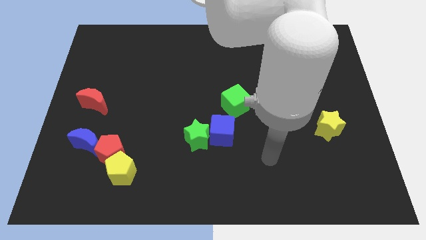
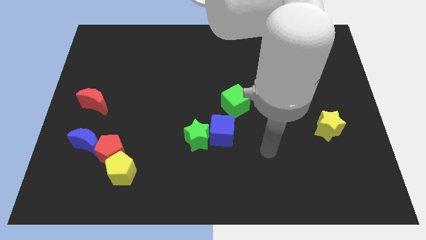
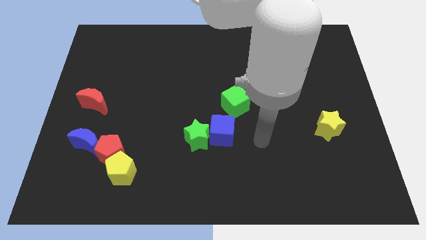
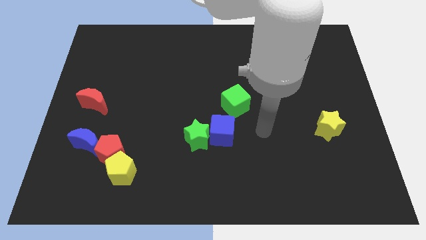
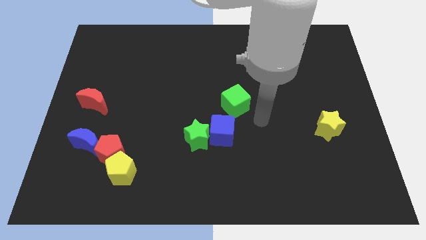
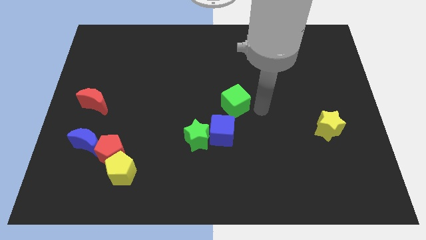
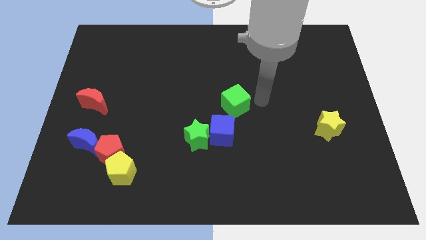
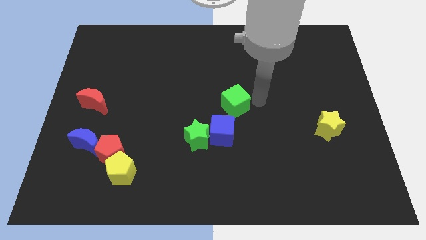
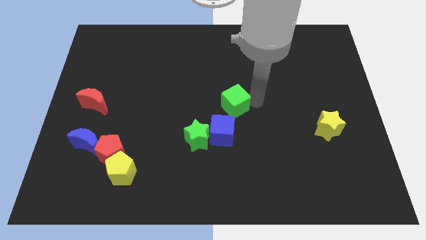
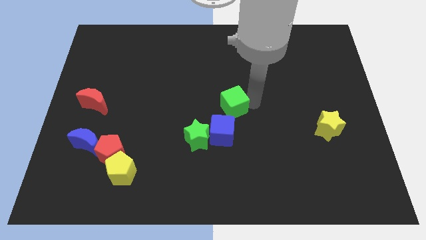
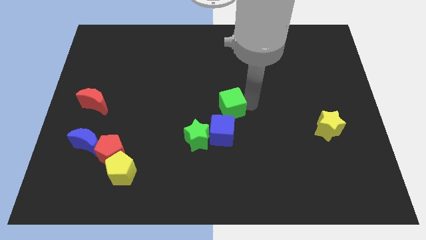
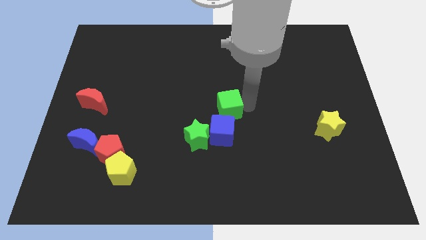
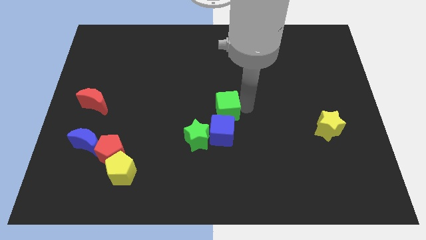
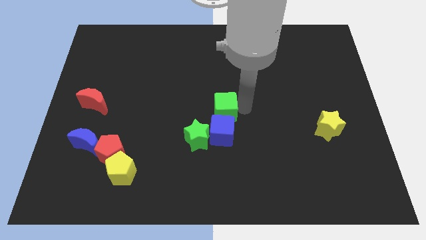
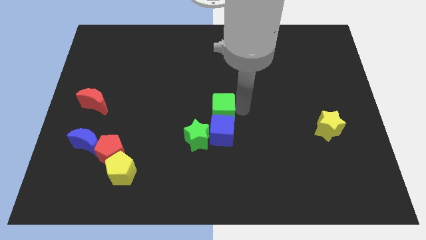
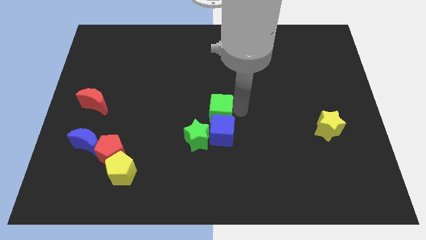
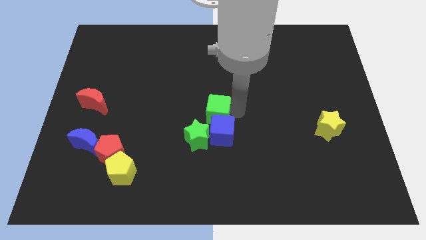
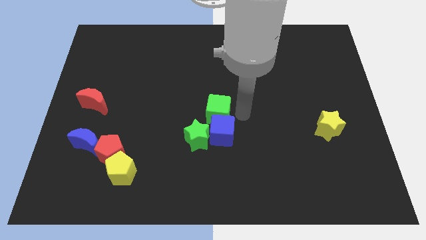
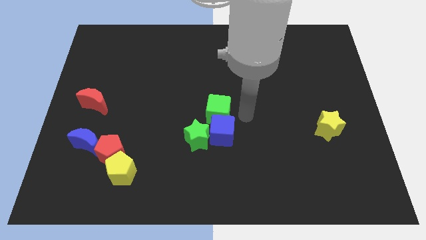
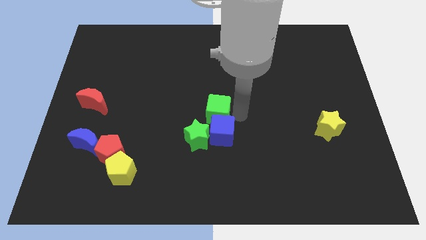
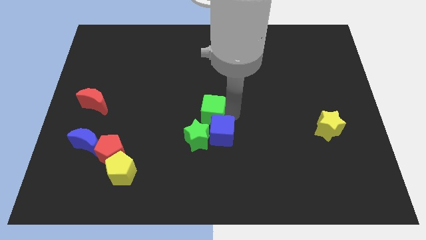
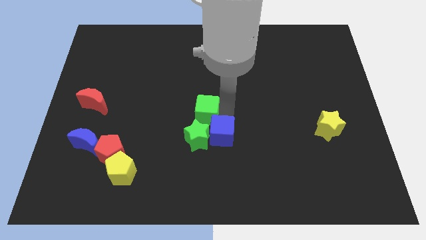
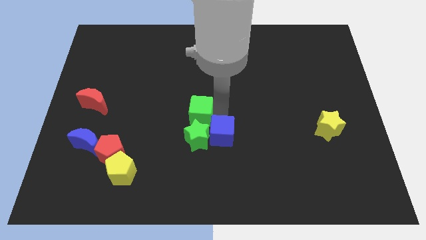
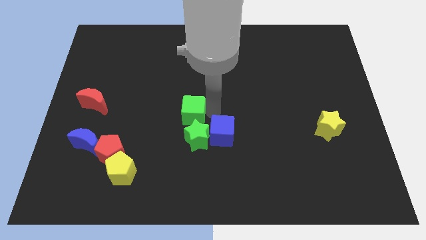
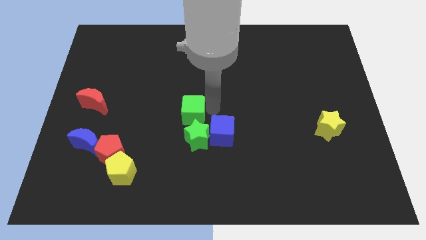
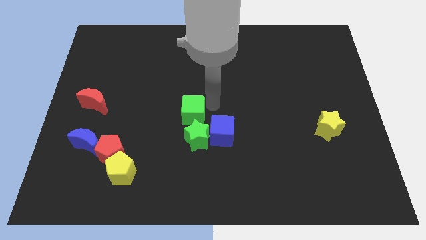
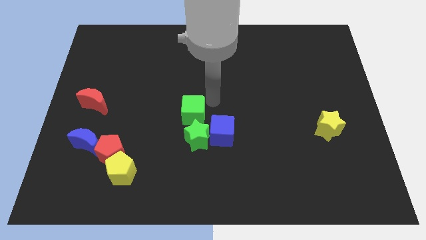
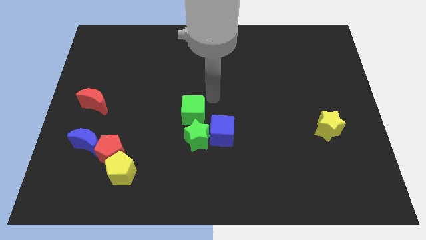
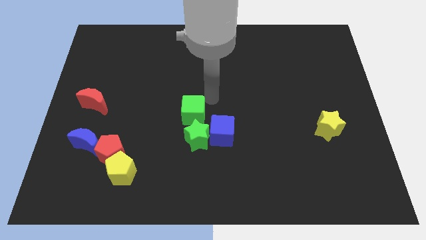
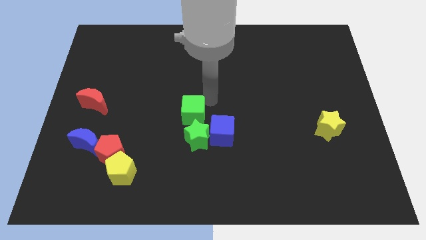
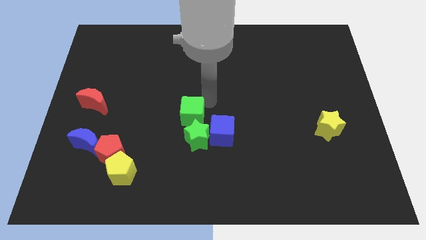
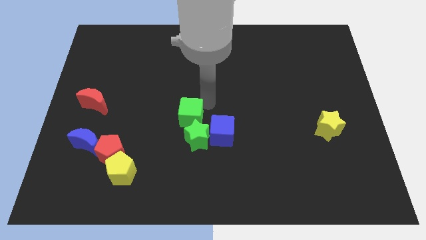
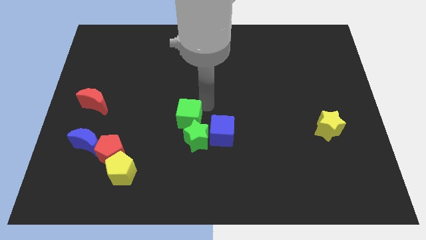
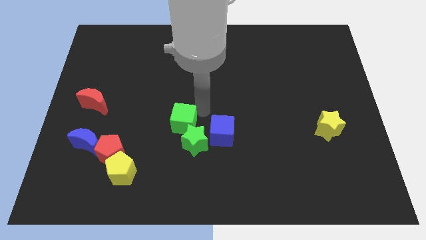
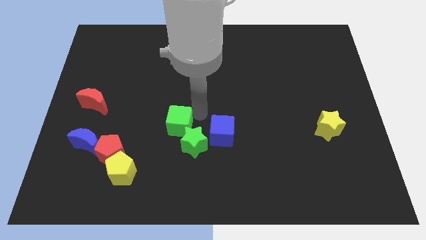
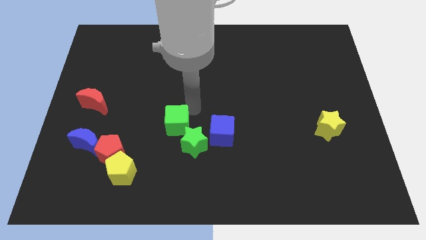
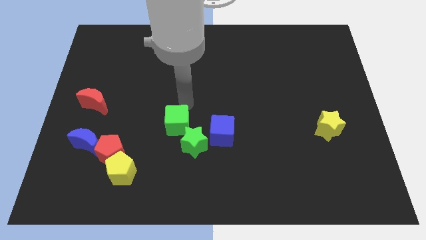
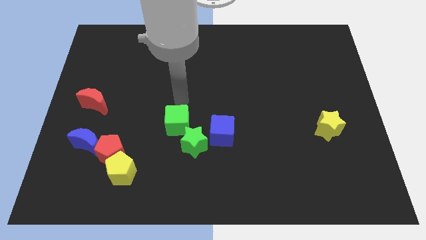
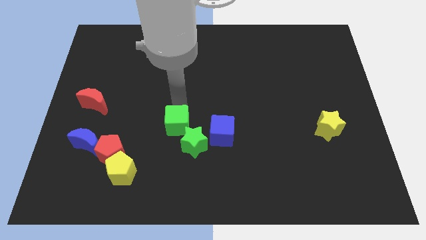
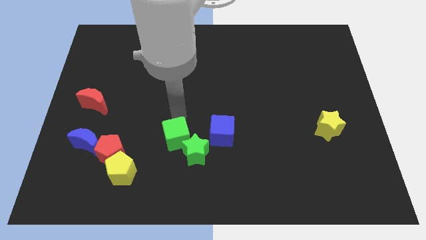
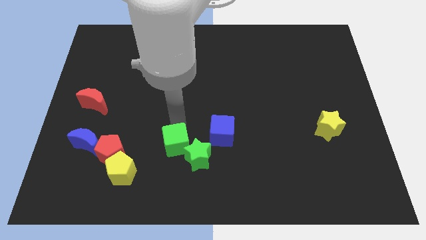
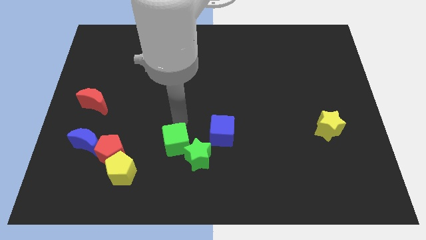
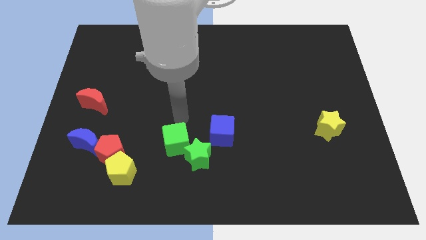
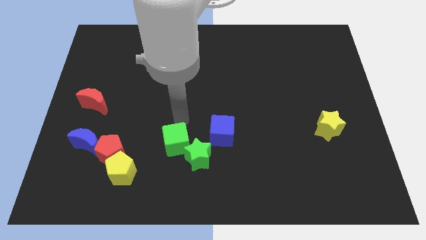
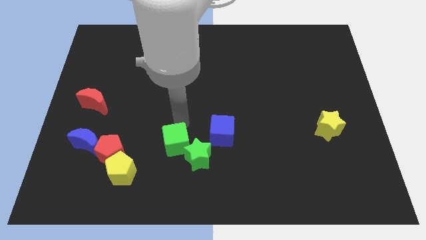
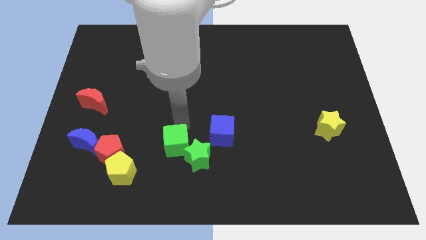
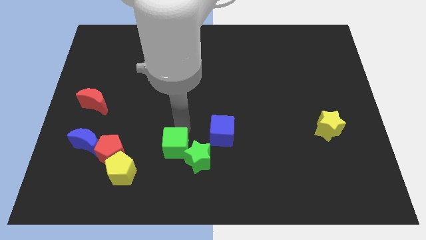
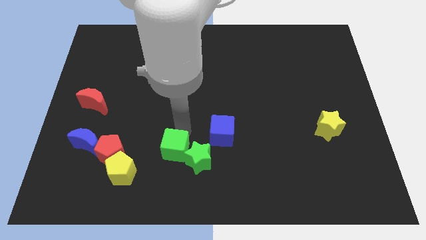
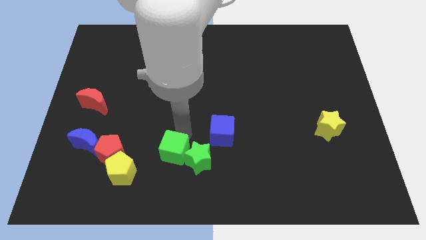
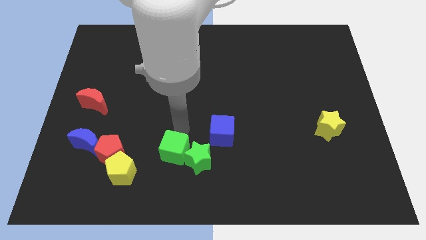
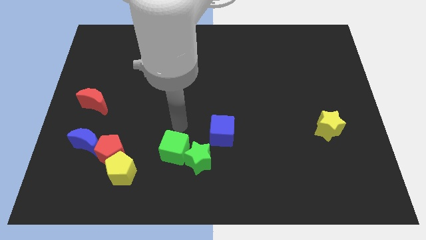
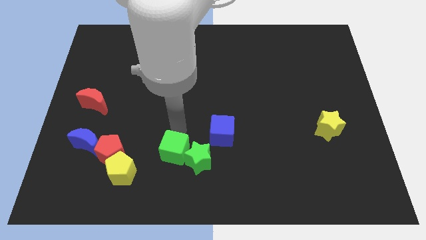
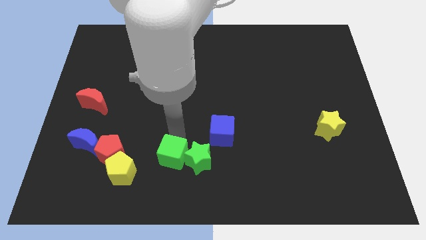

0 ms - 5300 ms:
slide the green cube to the right of the yellow pentagon

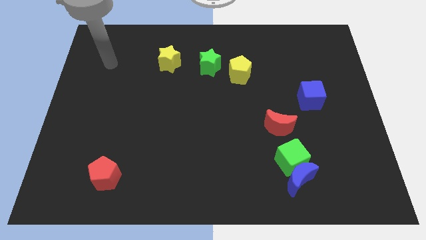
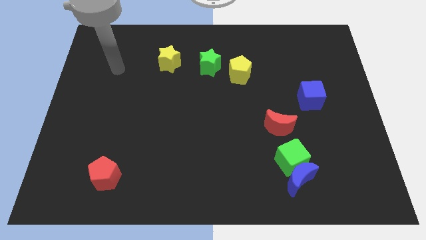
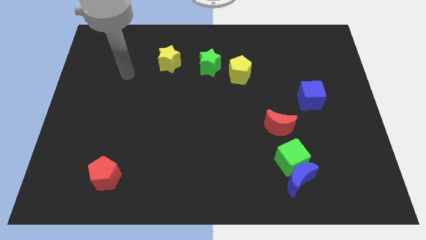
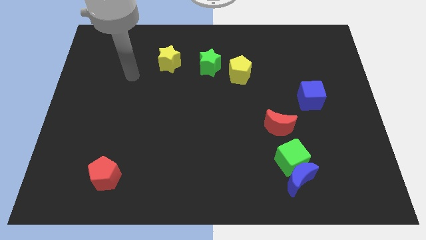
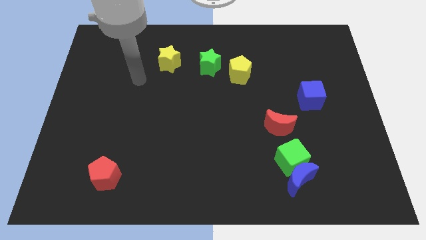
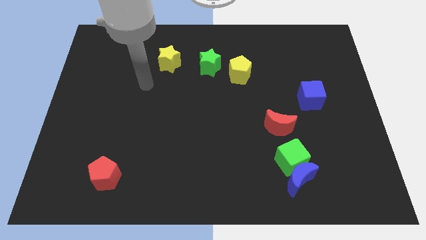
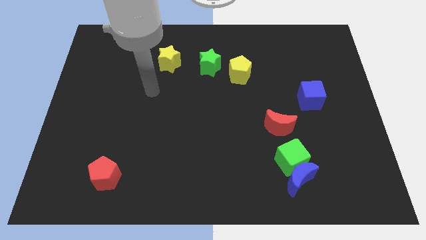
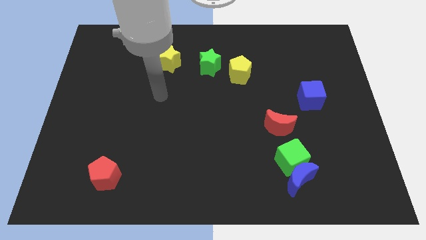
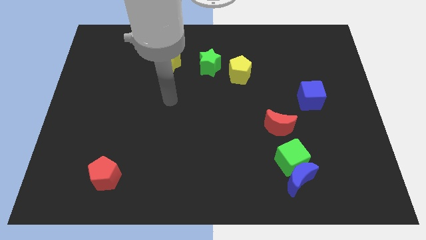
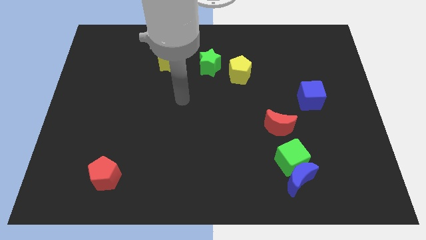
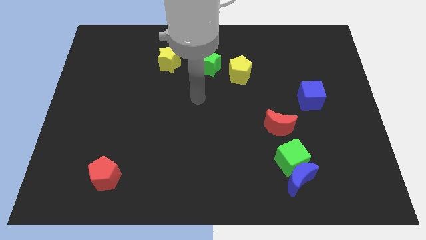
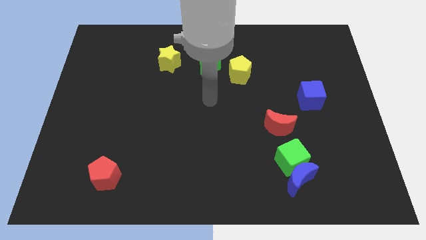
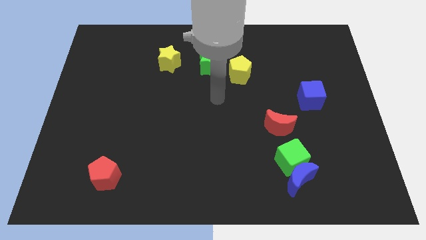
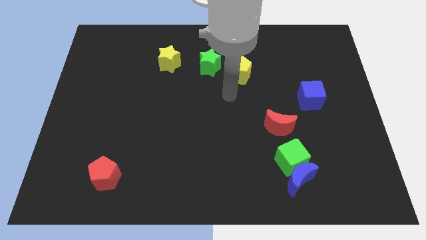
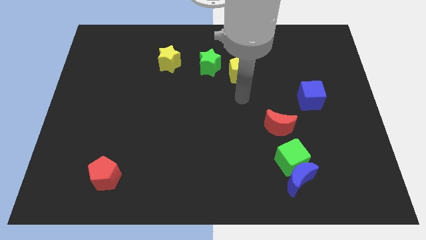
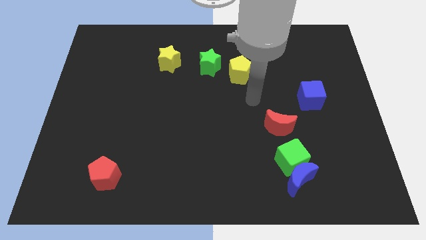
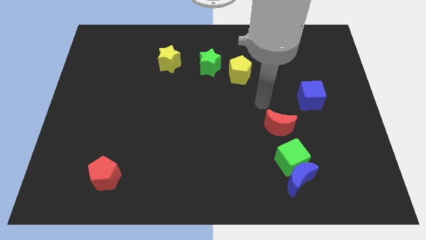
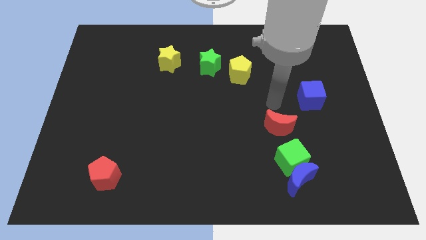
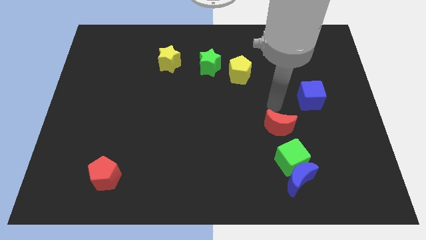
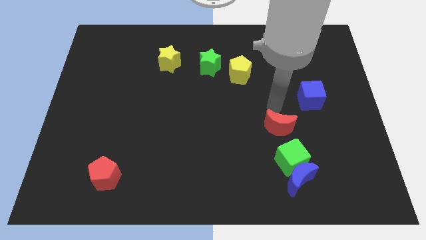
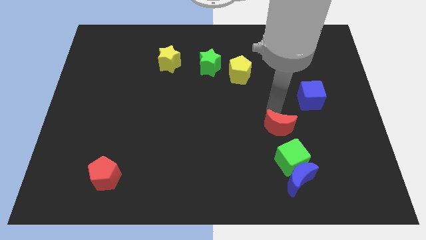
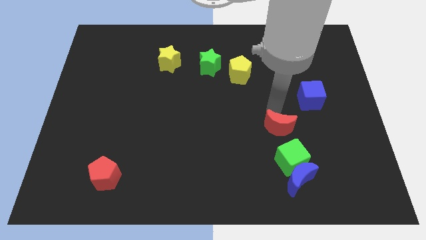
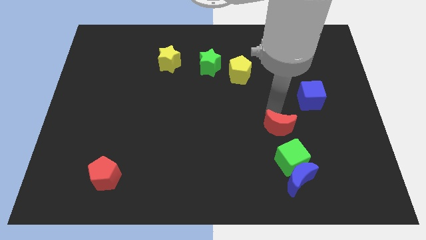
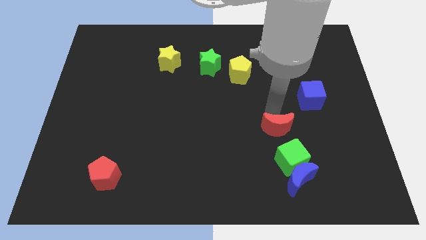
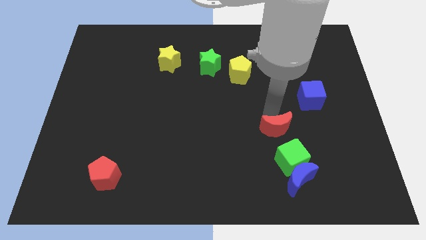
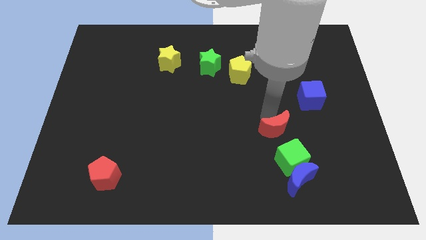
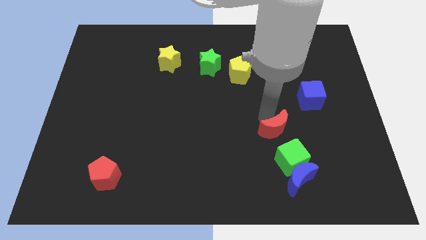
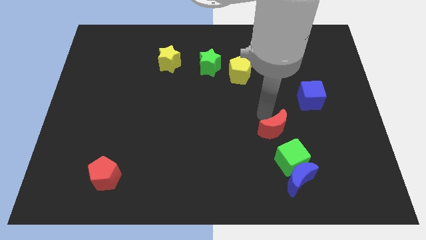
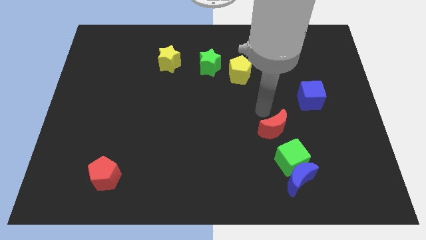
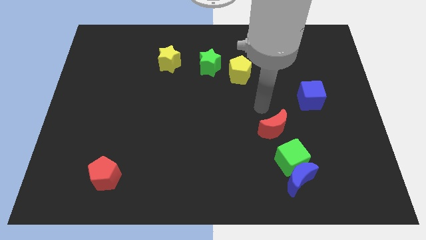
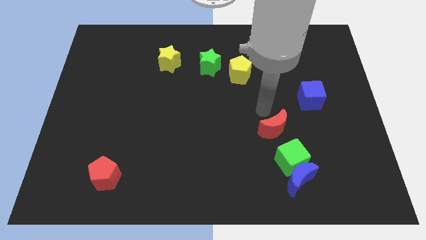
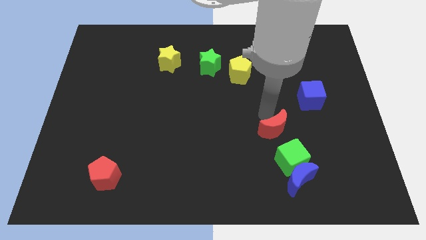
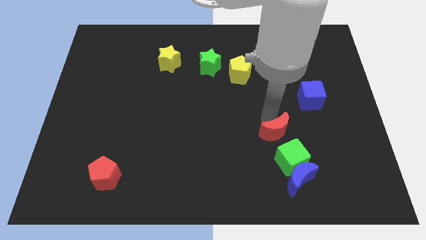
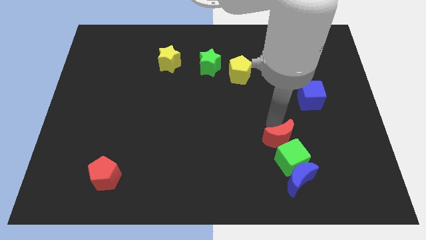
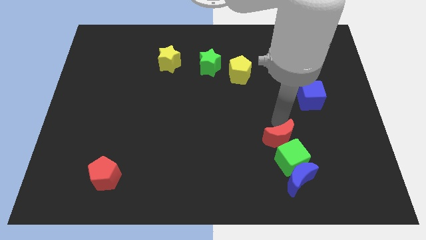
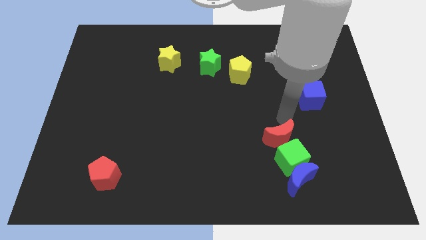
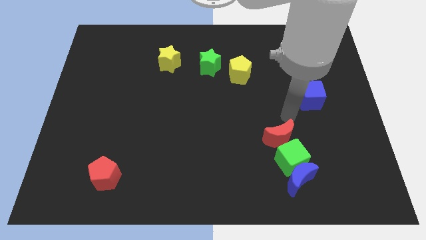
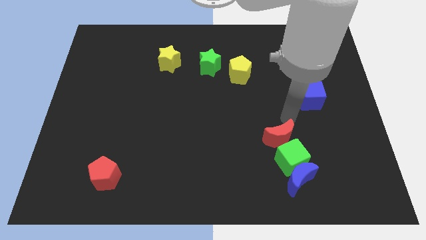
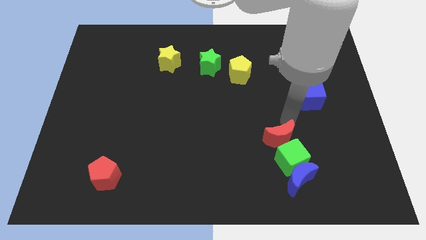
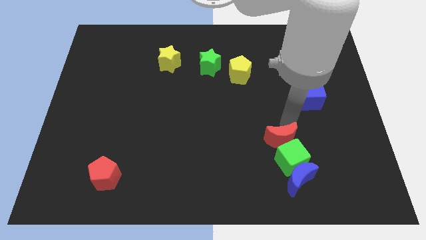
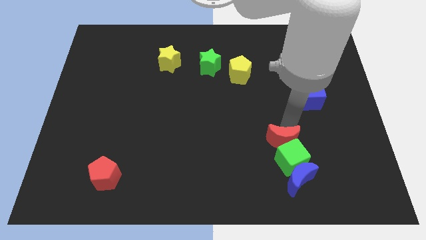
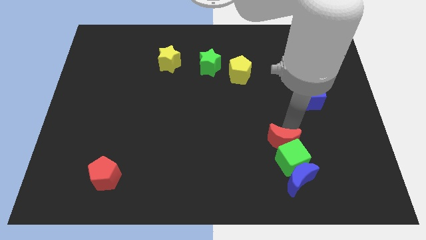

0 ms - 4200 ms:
move the red moon diagonally up and to the left of the blue moon
